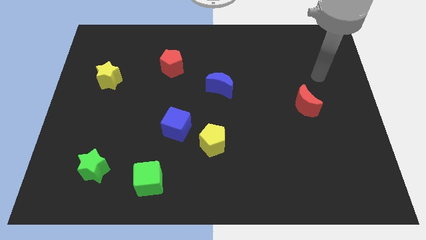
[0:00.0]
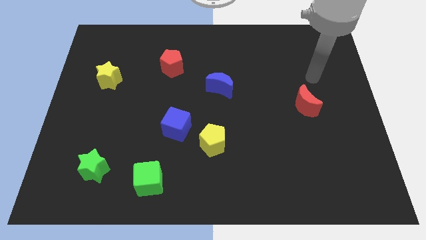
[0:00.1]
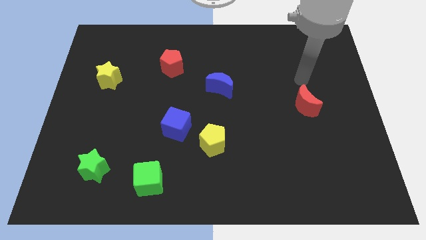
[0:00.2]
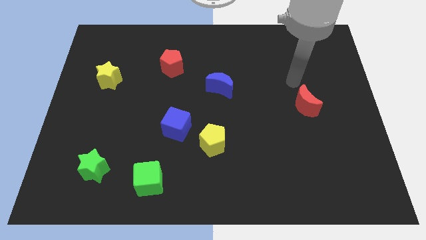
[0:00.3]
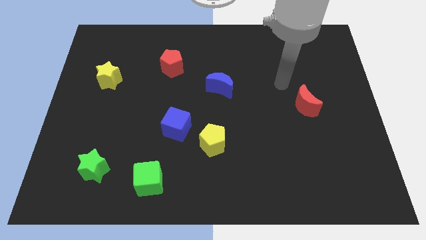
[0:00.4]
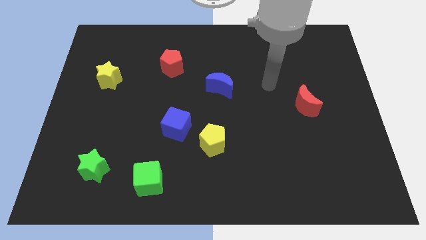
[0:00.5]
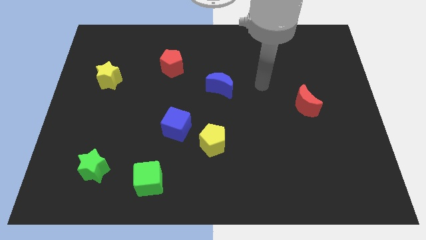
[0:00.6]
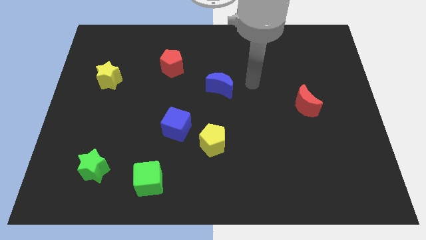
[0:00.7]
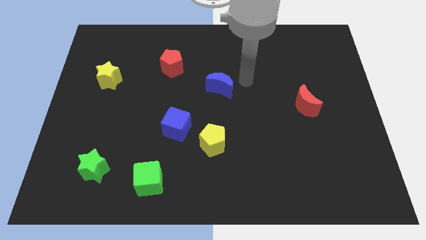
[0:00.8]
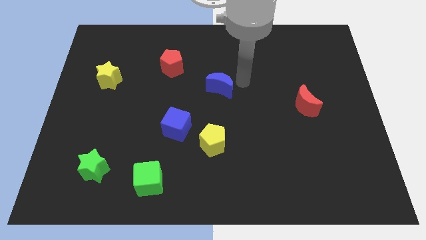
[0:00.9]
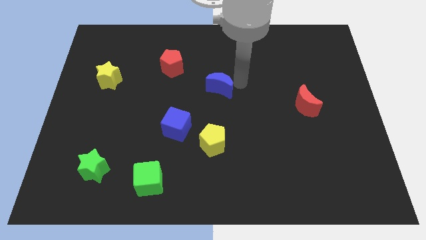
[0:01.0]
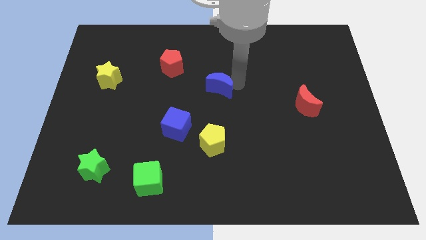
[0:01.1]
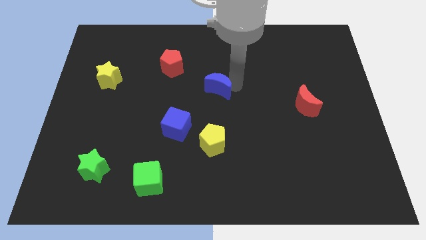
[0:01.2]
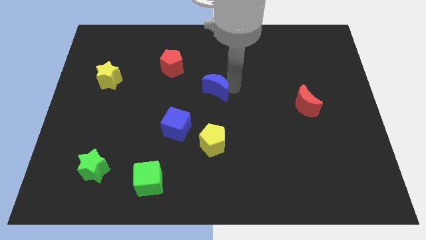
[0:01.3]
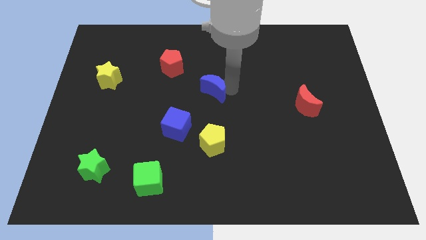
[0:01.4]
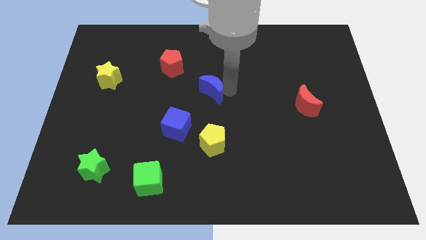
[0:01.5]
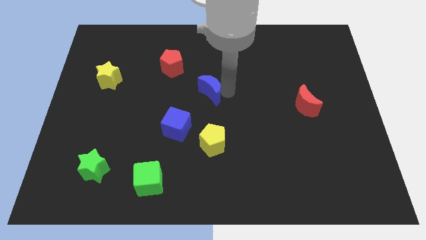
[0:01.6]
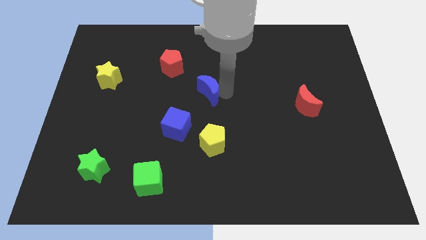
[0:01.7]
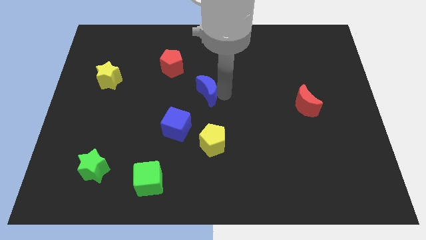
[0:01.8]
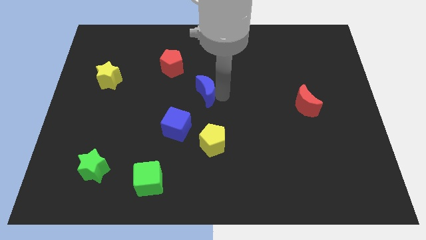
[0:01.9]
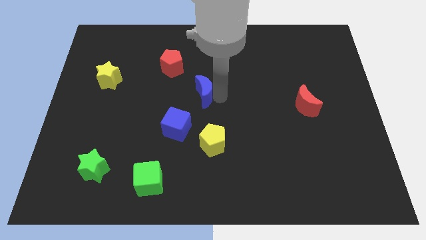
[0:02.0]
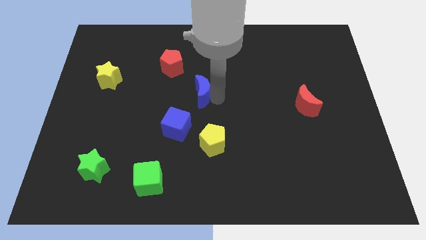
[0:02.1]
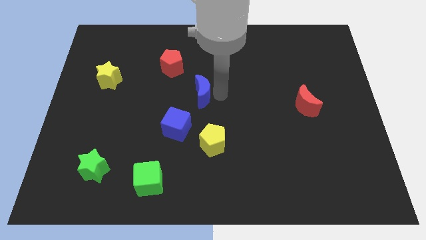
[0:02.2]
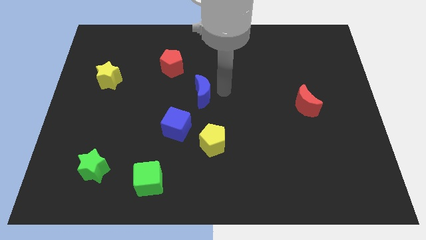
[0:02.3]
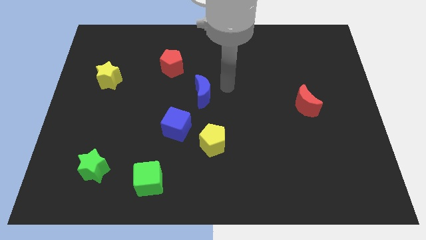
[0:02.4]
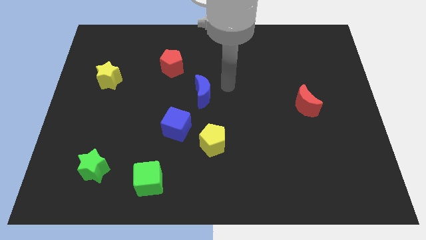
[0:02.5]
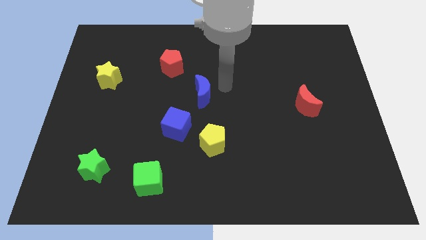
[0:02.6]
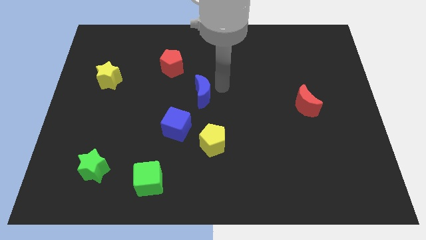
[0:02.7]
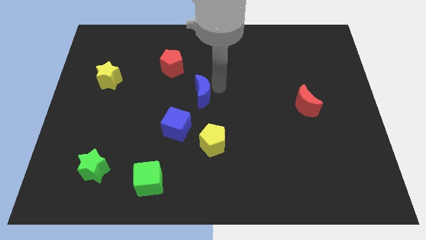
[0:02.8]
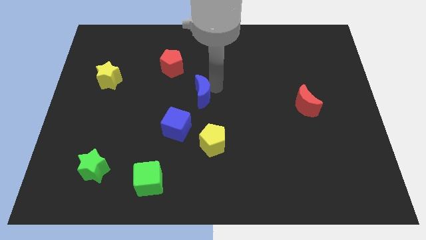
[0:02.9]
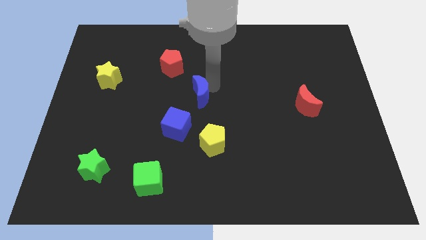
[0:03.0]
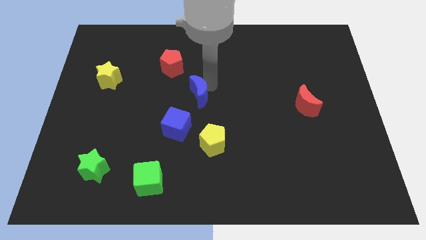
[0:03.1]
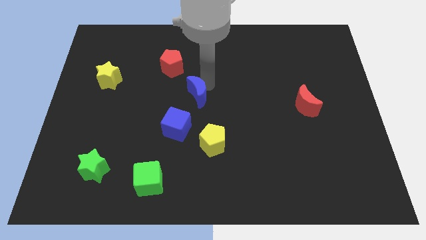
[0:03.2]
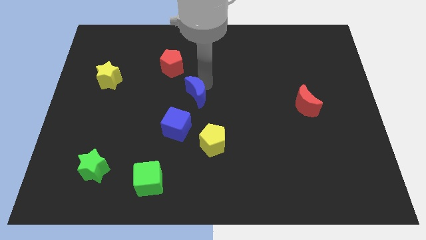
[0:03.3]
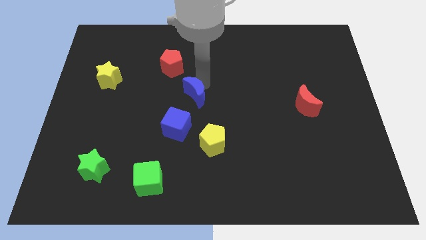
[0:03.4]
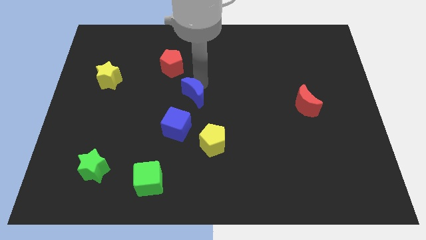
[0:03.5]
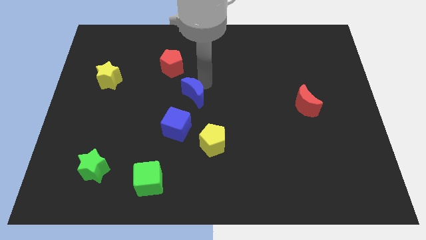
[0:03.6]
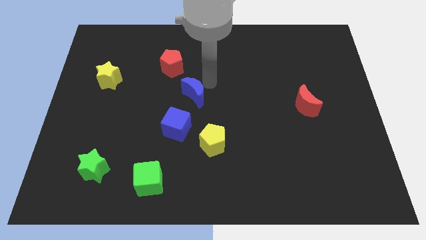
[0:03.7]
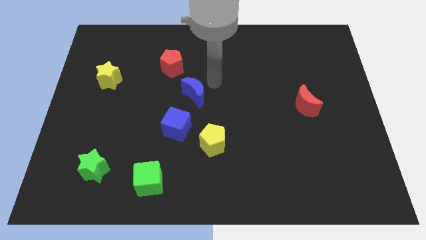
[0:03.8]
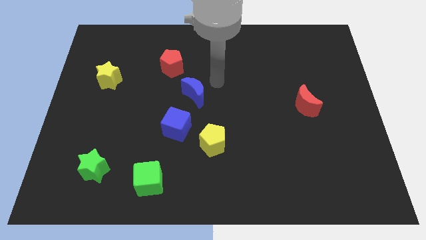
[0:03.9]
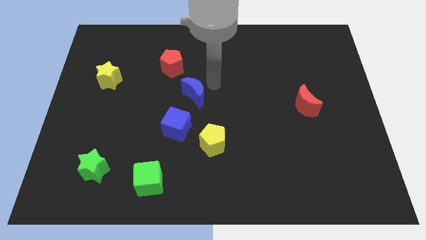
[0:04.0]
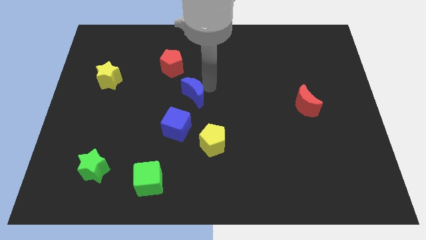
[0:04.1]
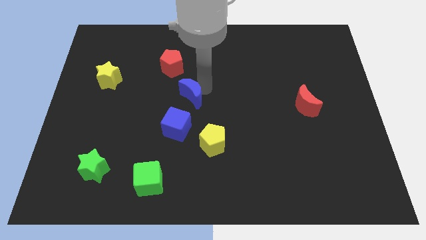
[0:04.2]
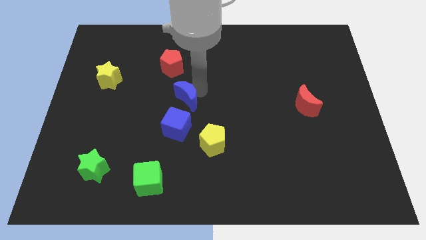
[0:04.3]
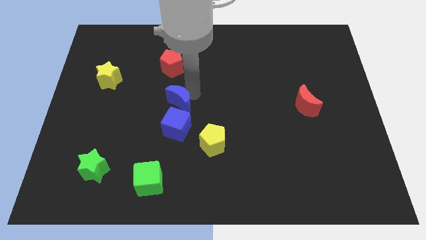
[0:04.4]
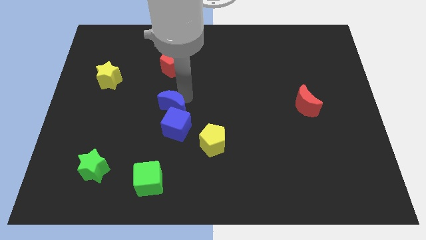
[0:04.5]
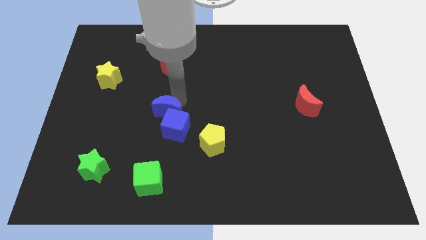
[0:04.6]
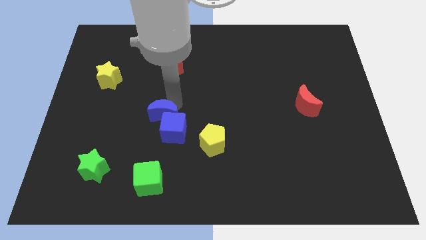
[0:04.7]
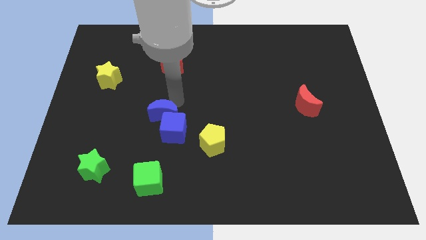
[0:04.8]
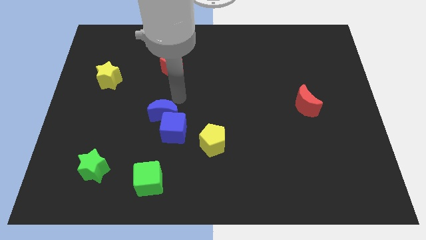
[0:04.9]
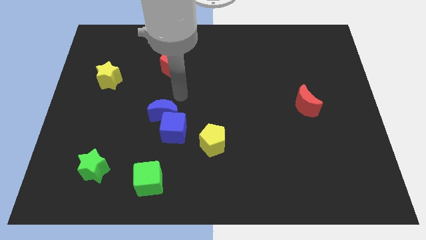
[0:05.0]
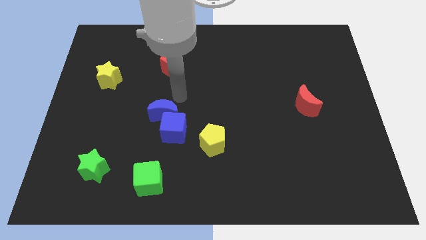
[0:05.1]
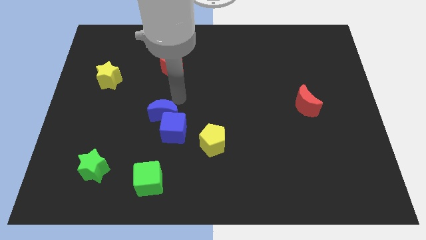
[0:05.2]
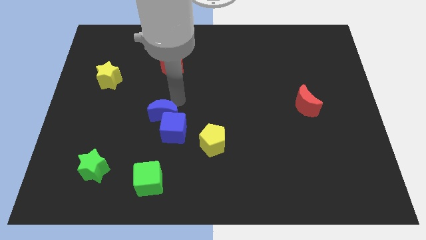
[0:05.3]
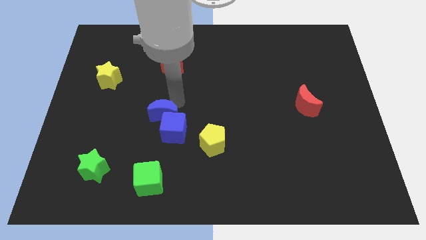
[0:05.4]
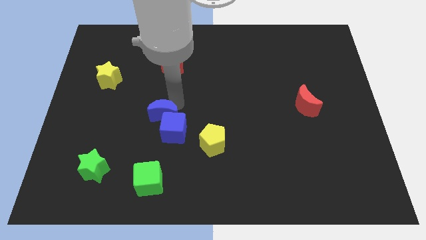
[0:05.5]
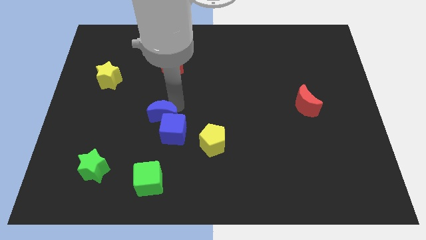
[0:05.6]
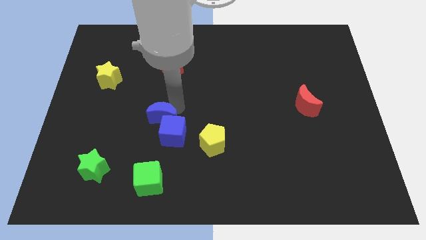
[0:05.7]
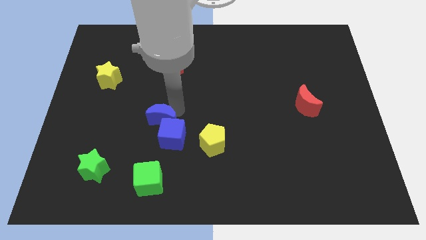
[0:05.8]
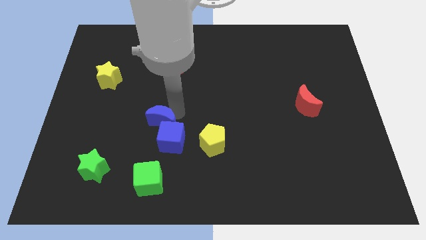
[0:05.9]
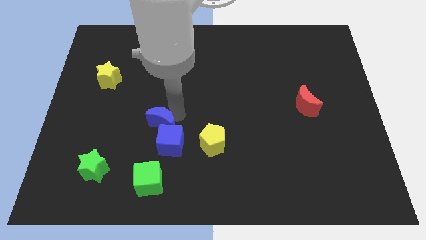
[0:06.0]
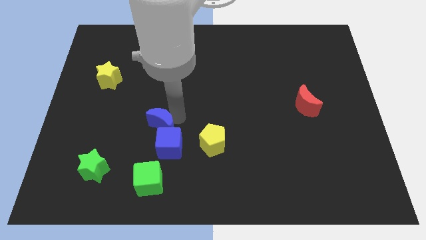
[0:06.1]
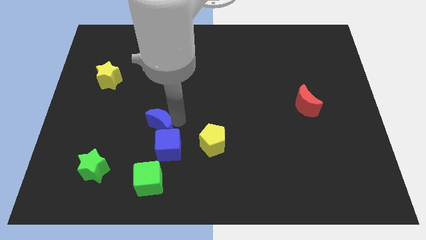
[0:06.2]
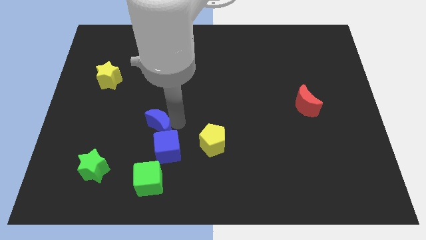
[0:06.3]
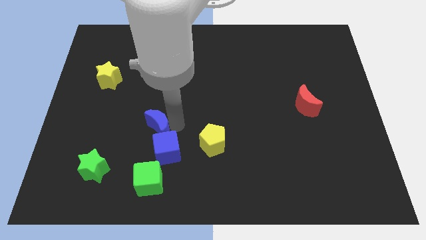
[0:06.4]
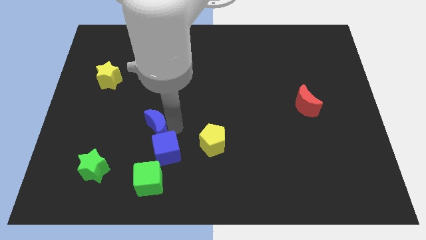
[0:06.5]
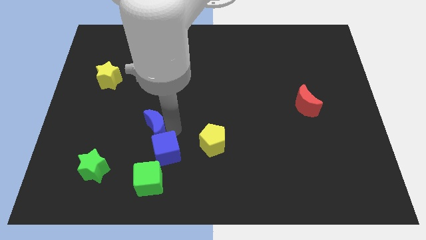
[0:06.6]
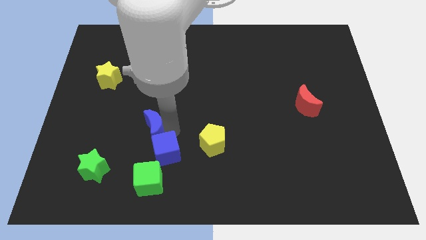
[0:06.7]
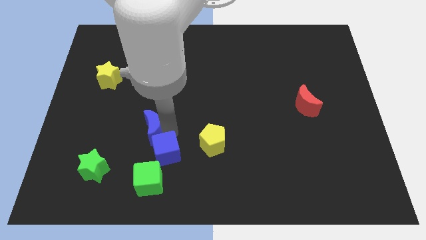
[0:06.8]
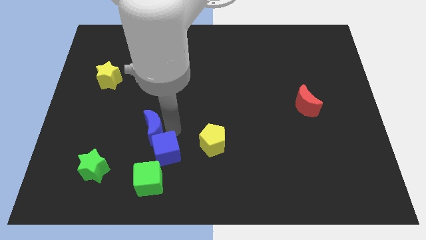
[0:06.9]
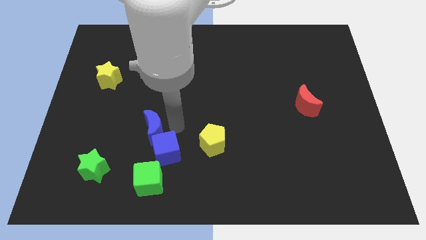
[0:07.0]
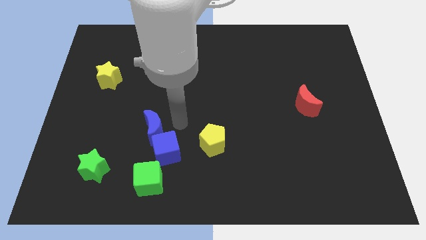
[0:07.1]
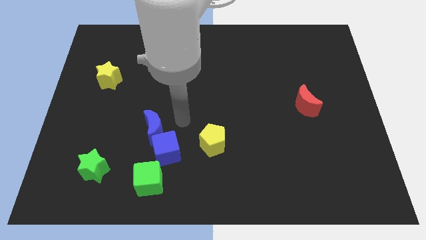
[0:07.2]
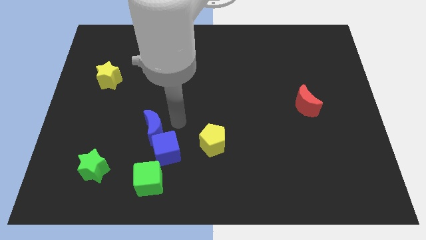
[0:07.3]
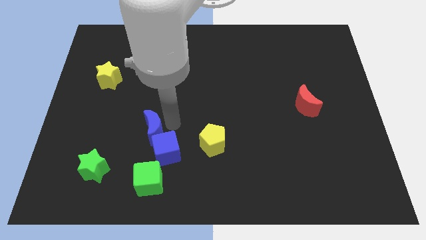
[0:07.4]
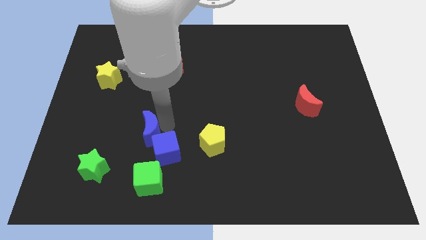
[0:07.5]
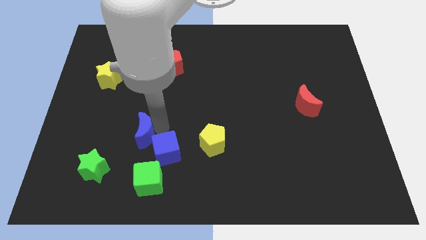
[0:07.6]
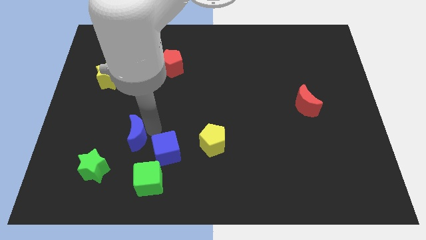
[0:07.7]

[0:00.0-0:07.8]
put the blue moon to the top right side of the green star

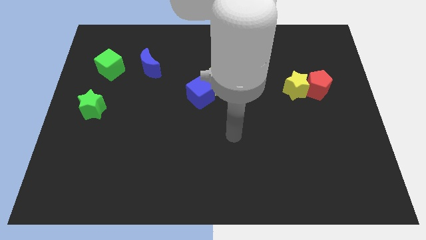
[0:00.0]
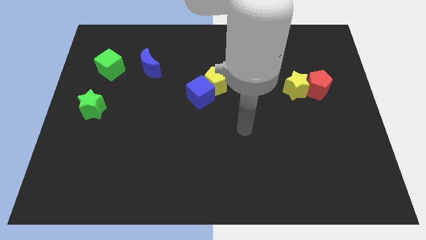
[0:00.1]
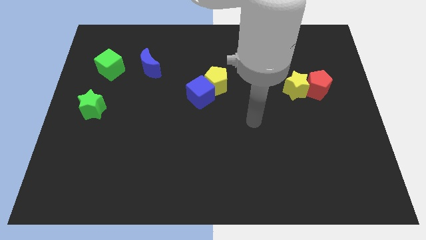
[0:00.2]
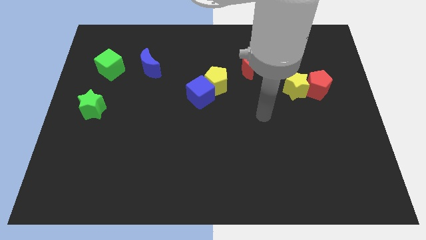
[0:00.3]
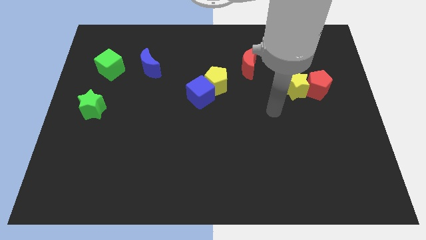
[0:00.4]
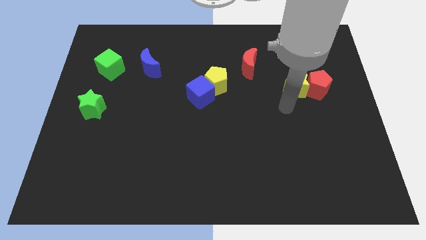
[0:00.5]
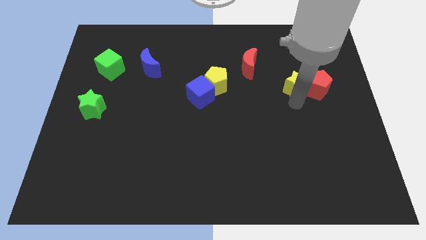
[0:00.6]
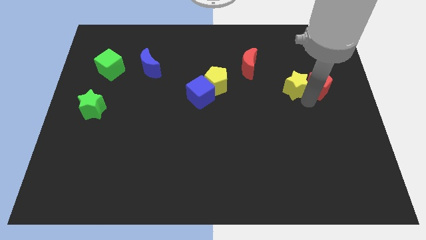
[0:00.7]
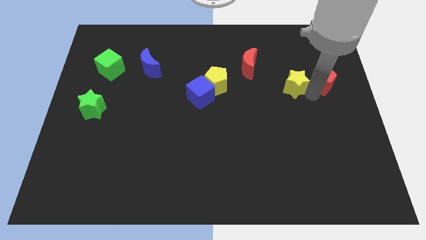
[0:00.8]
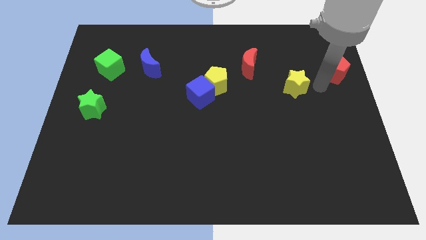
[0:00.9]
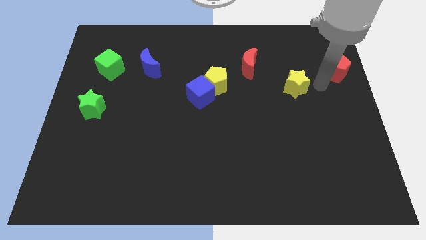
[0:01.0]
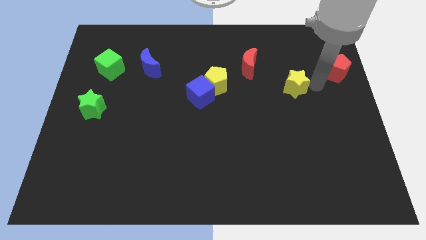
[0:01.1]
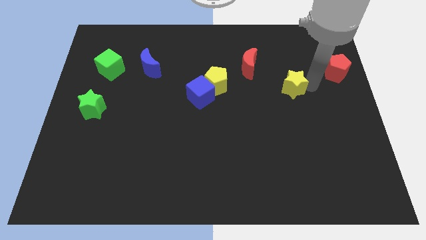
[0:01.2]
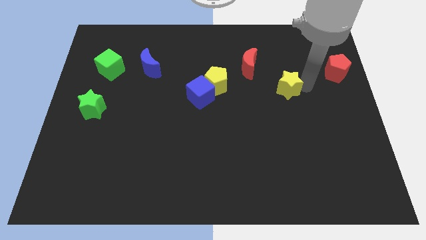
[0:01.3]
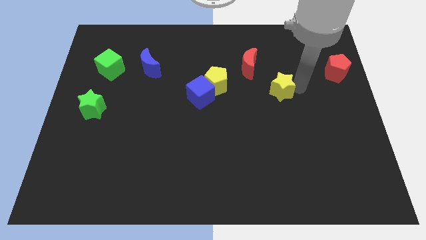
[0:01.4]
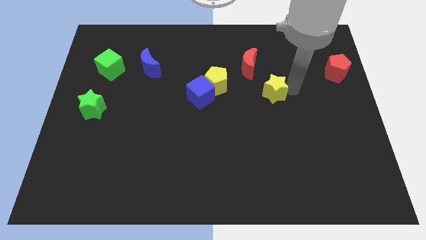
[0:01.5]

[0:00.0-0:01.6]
push the yellow star to the right of the yellow pentagon
